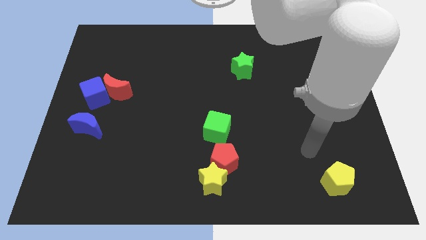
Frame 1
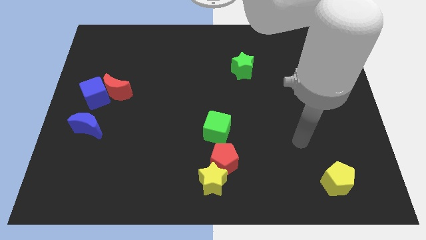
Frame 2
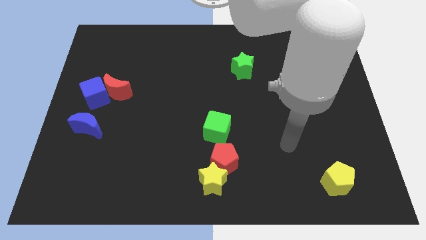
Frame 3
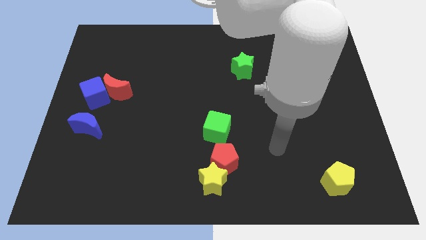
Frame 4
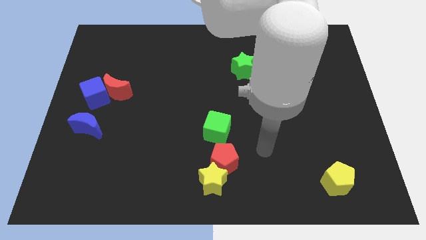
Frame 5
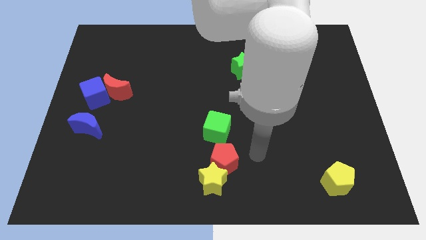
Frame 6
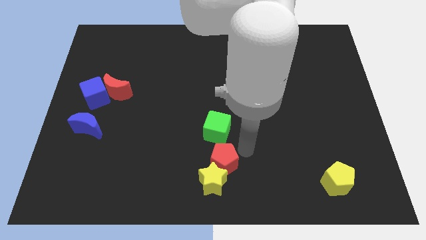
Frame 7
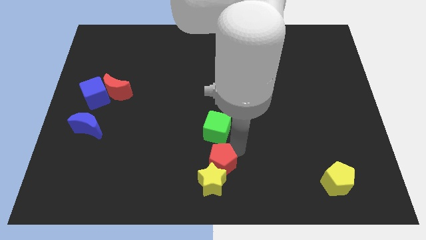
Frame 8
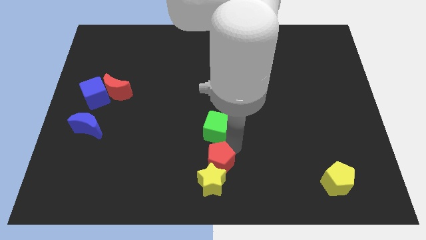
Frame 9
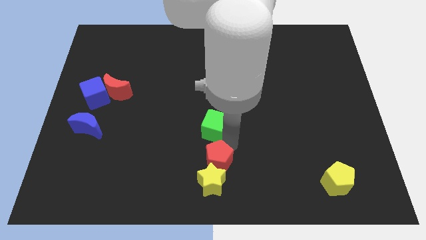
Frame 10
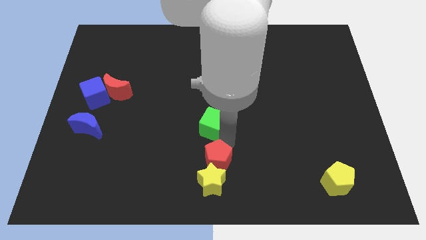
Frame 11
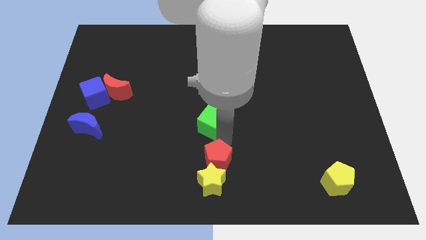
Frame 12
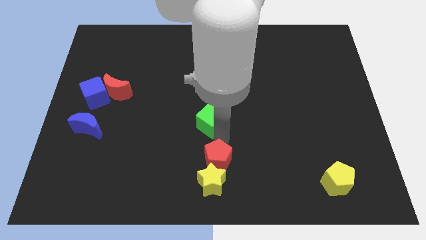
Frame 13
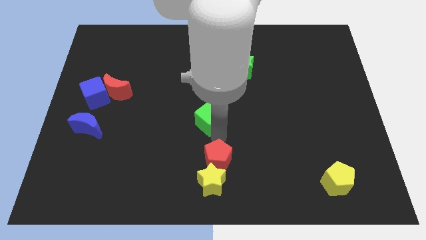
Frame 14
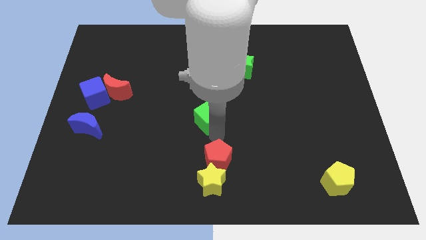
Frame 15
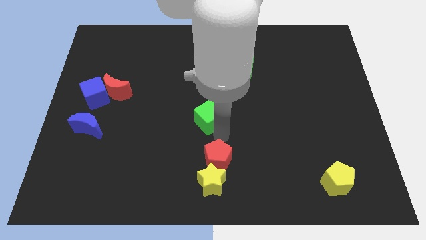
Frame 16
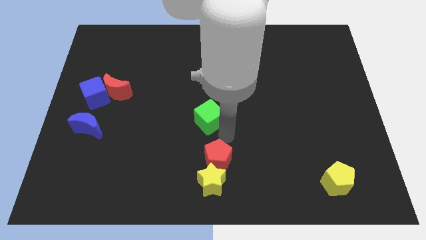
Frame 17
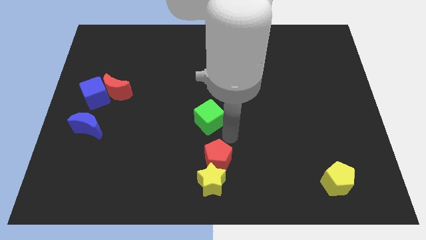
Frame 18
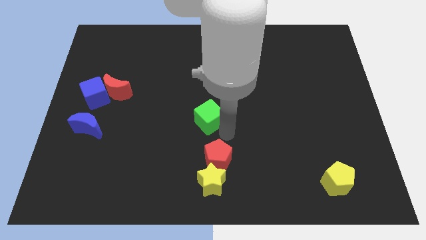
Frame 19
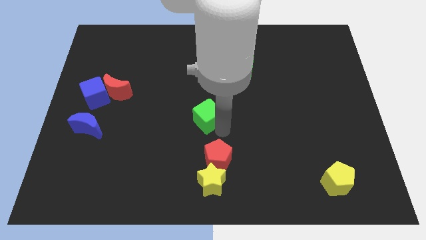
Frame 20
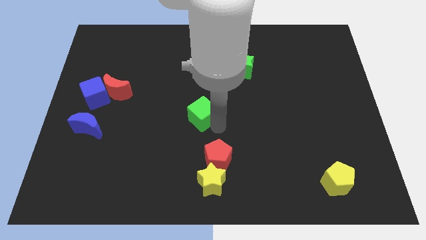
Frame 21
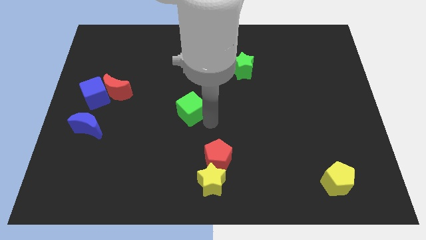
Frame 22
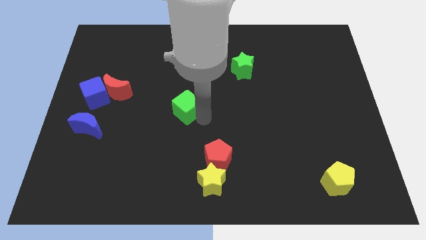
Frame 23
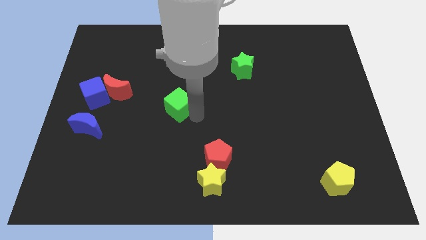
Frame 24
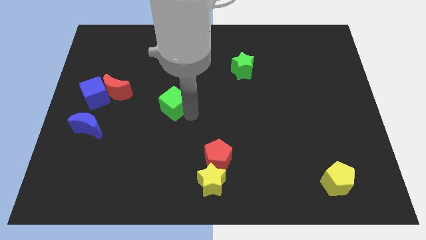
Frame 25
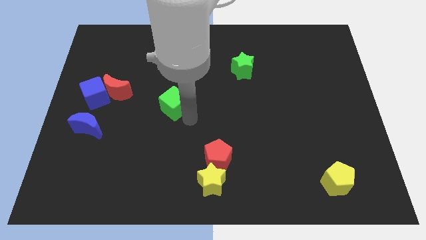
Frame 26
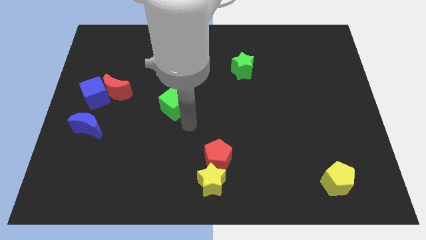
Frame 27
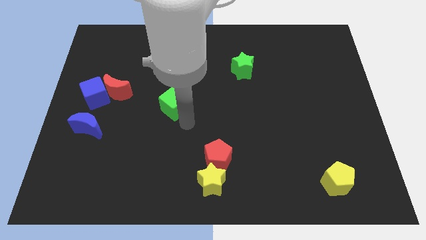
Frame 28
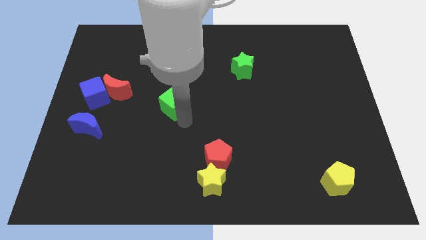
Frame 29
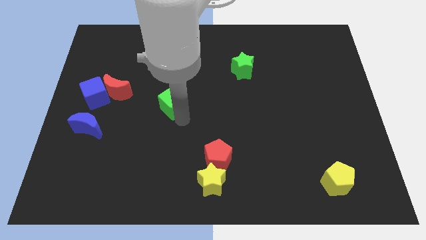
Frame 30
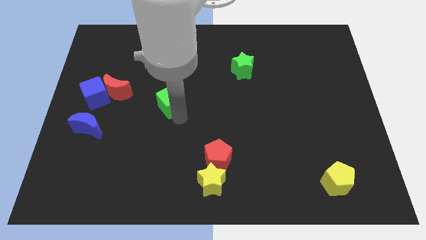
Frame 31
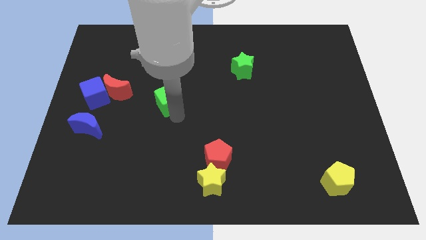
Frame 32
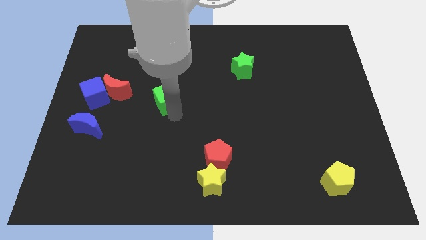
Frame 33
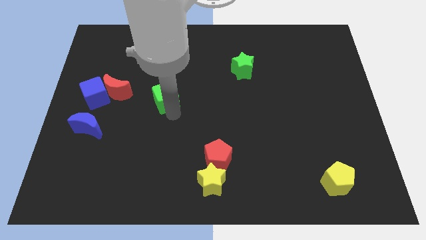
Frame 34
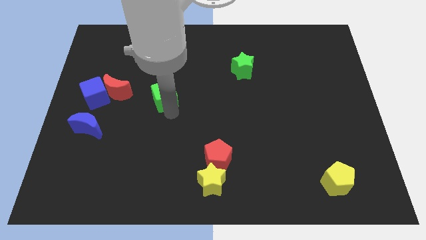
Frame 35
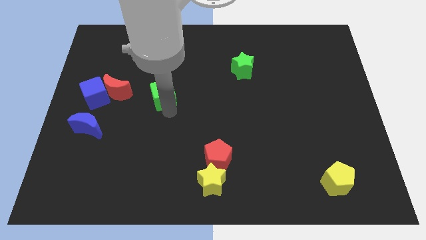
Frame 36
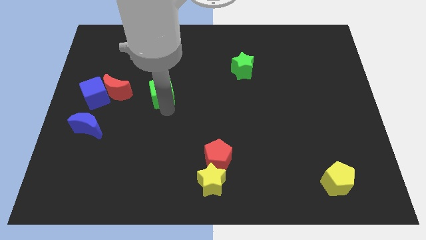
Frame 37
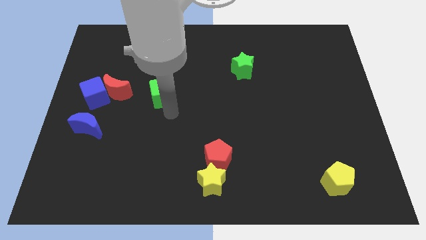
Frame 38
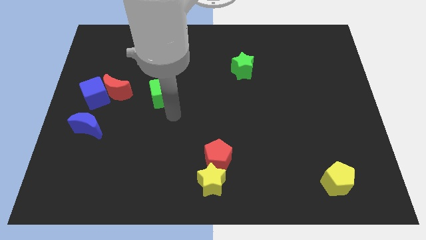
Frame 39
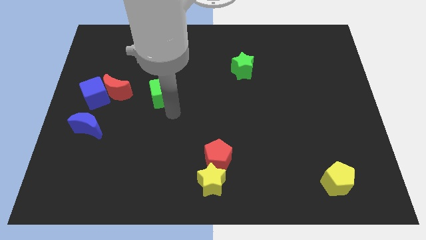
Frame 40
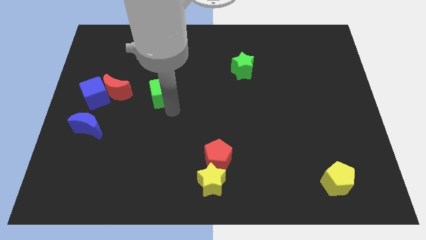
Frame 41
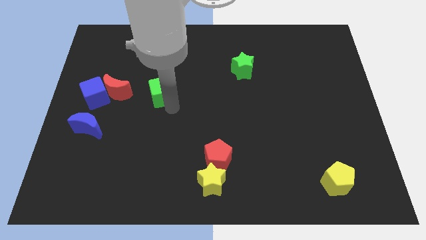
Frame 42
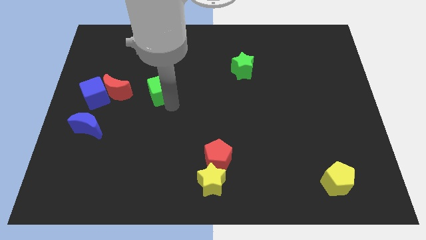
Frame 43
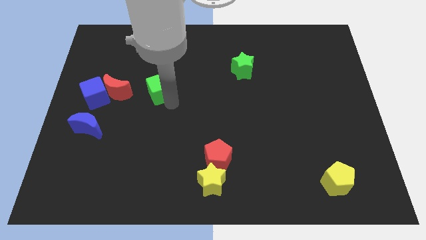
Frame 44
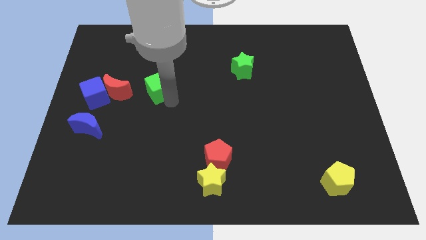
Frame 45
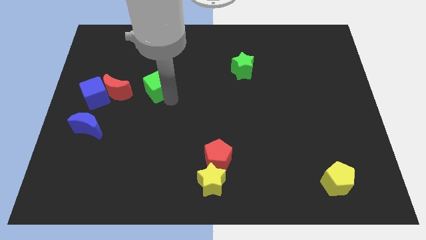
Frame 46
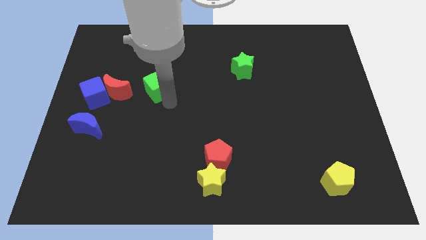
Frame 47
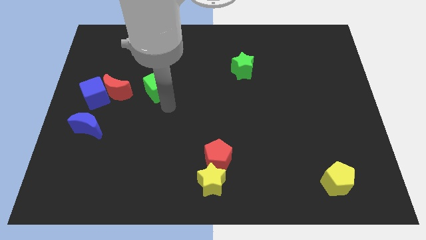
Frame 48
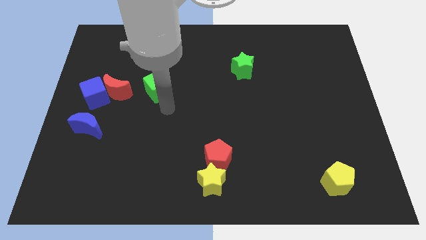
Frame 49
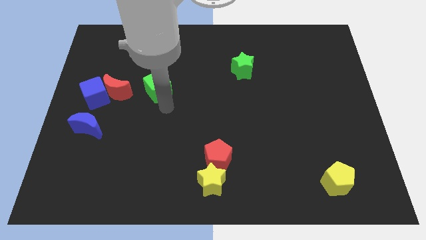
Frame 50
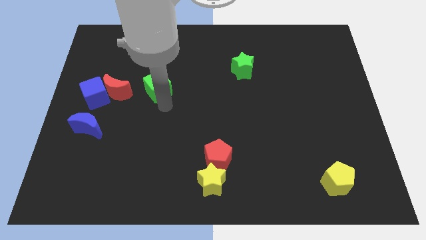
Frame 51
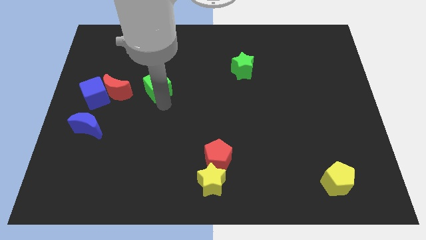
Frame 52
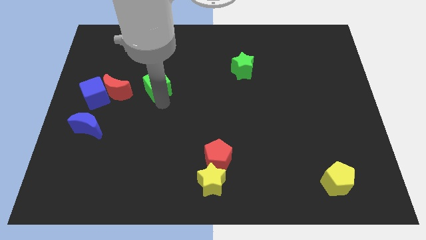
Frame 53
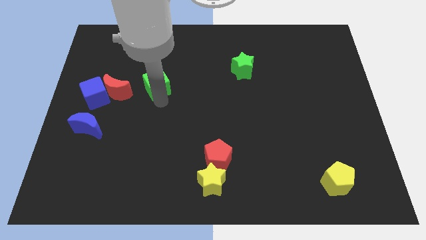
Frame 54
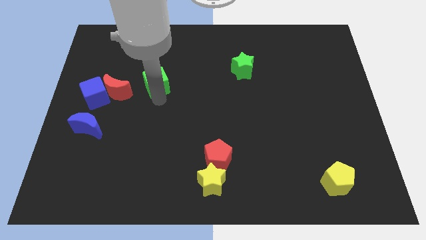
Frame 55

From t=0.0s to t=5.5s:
move the green cube diagonally upwards and left

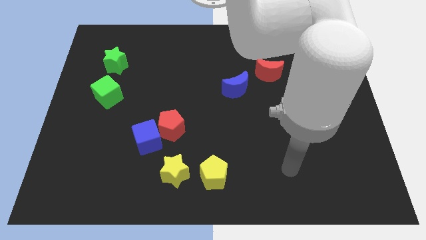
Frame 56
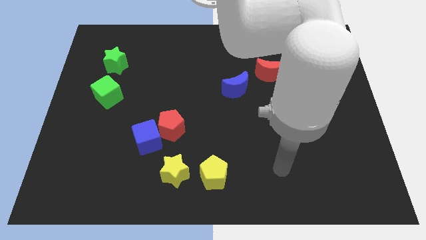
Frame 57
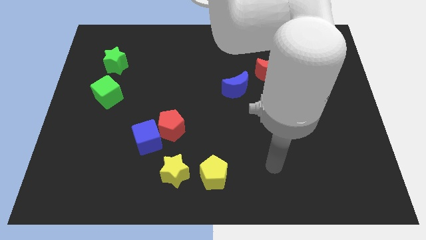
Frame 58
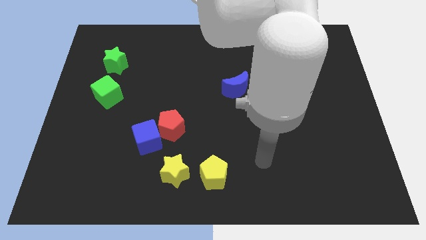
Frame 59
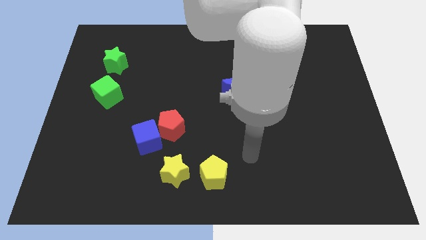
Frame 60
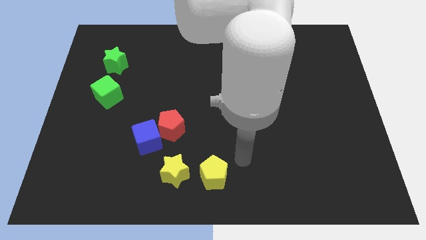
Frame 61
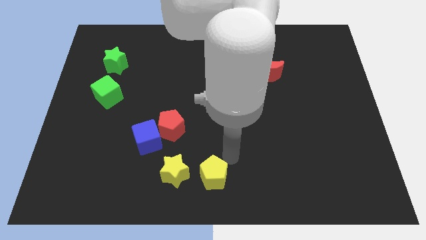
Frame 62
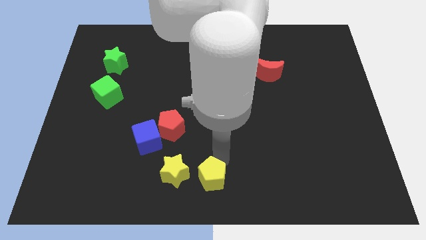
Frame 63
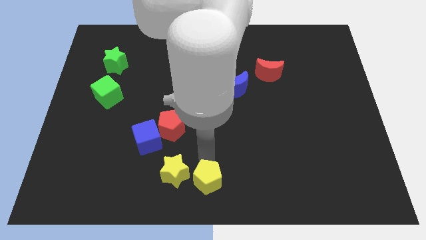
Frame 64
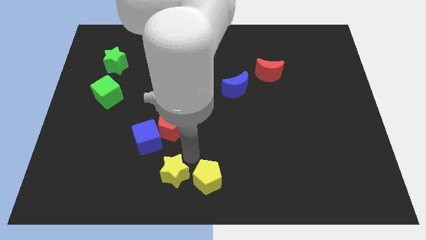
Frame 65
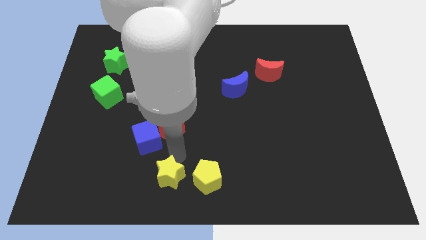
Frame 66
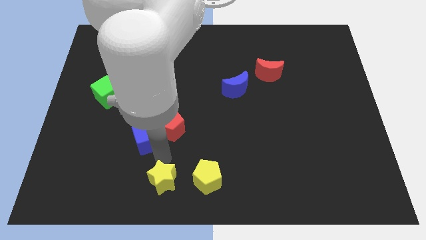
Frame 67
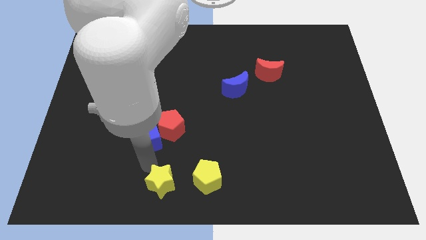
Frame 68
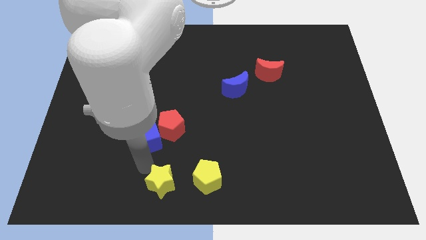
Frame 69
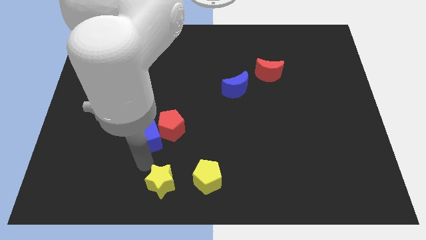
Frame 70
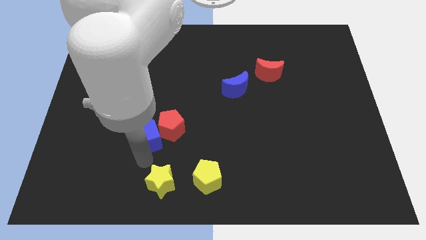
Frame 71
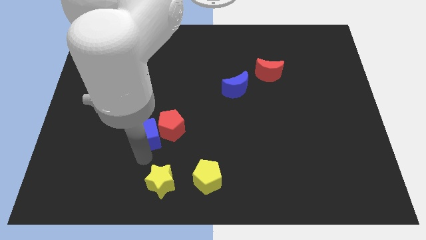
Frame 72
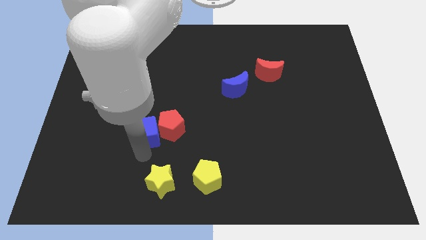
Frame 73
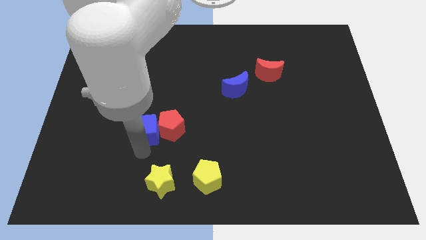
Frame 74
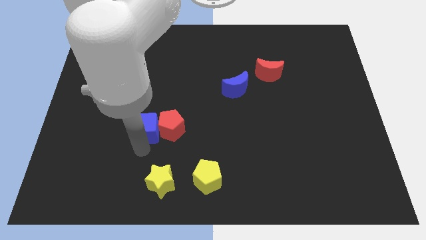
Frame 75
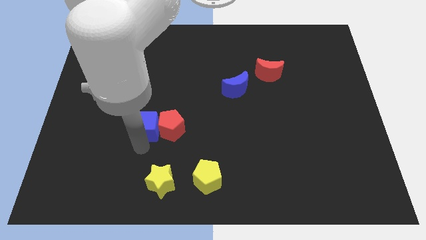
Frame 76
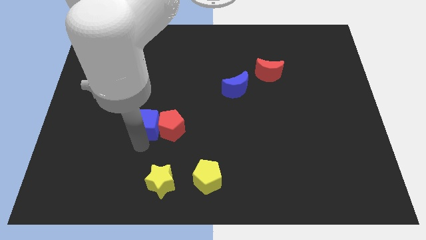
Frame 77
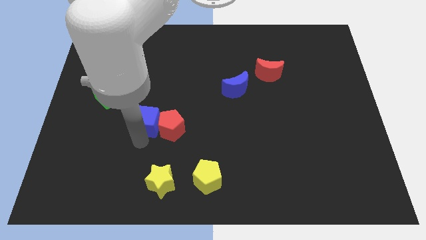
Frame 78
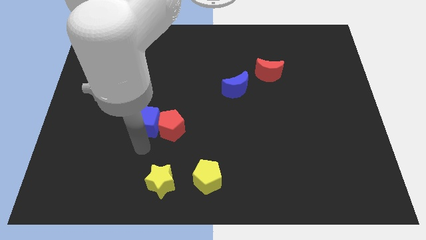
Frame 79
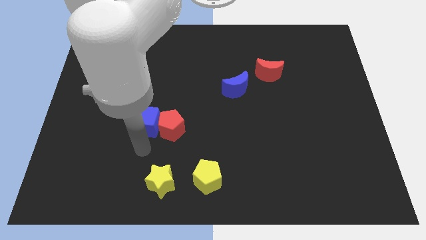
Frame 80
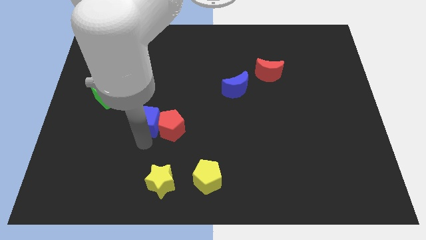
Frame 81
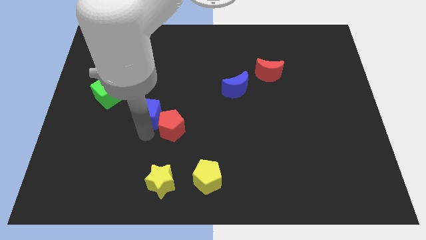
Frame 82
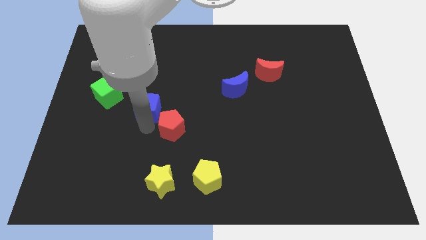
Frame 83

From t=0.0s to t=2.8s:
slide the blue cube upwards somewhat
